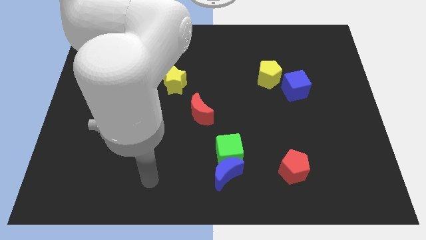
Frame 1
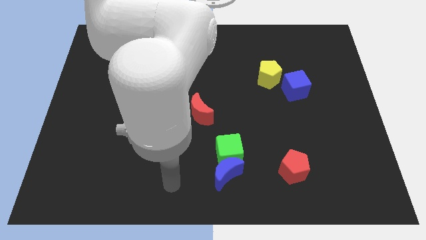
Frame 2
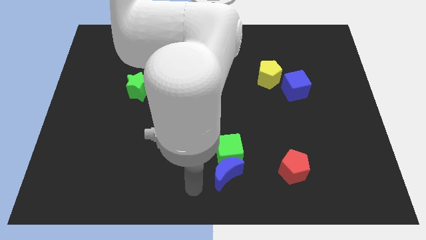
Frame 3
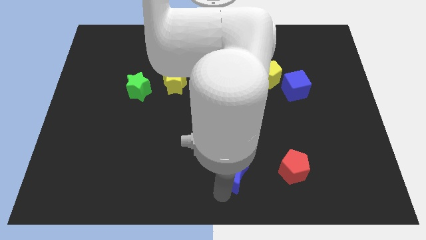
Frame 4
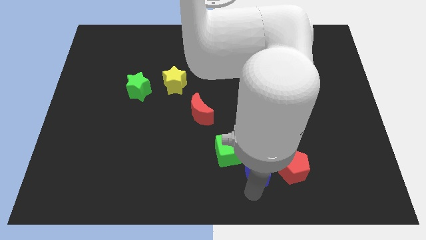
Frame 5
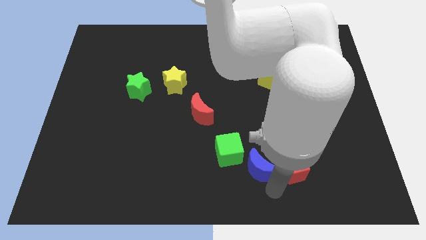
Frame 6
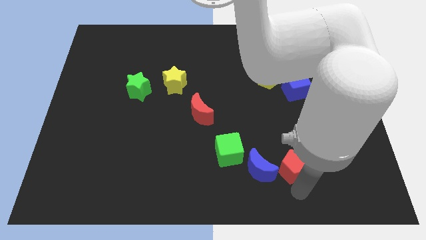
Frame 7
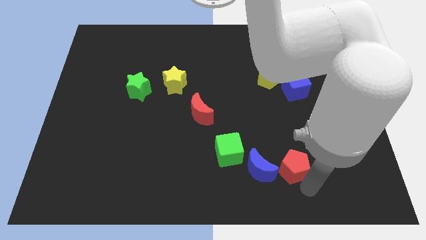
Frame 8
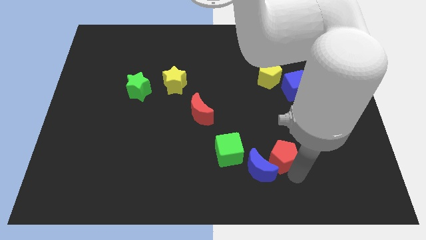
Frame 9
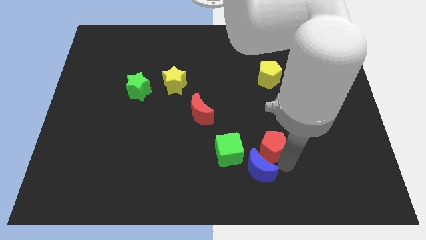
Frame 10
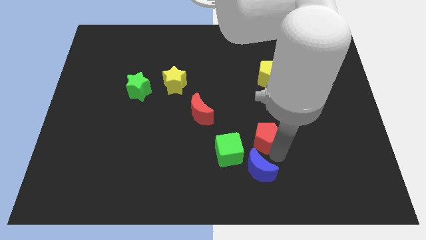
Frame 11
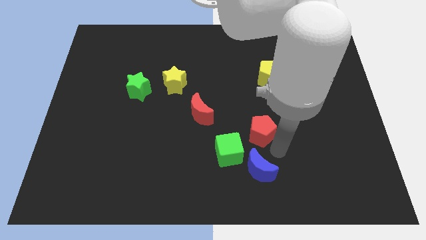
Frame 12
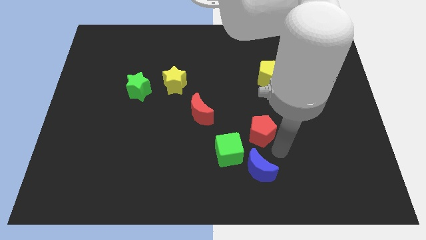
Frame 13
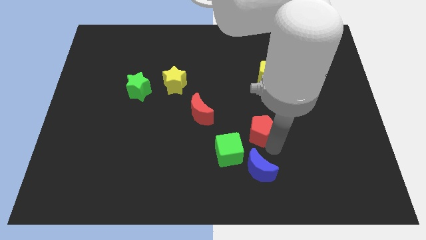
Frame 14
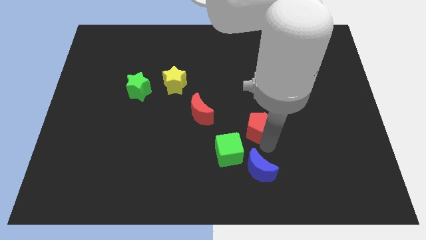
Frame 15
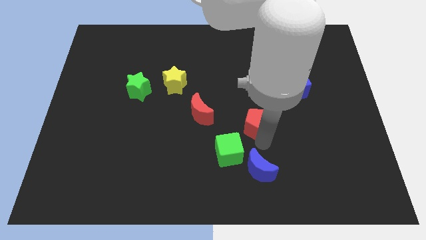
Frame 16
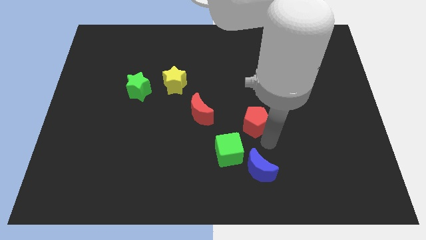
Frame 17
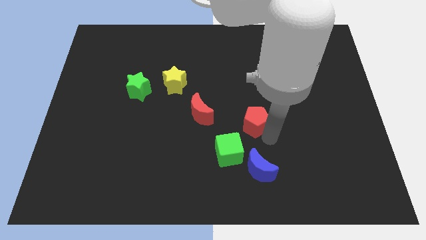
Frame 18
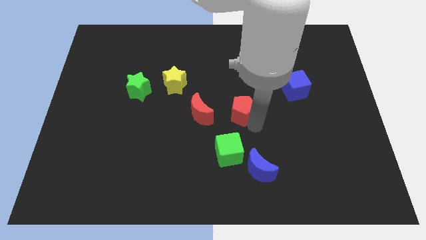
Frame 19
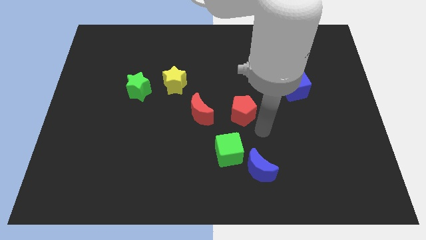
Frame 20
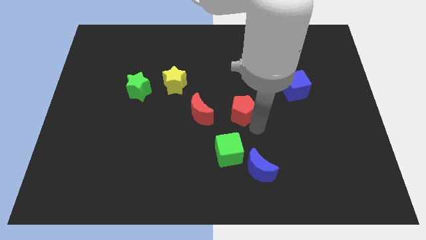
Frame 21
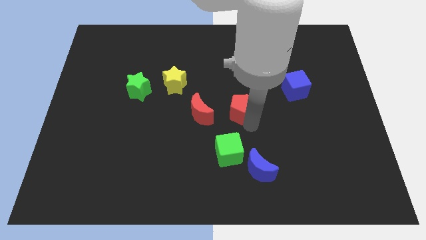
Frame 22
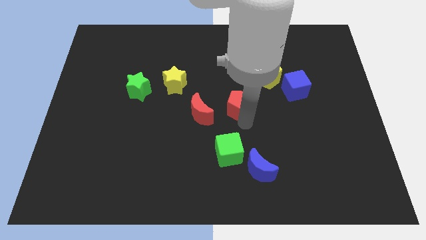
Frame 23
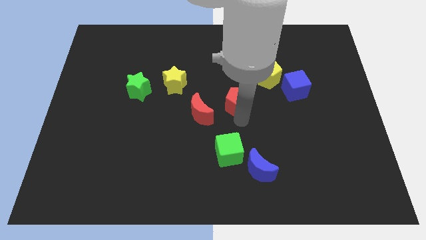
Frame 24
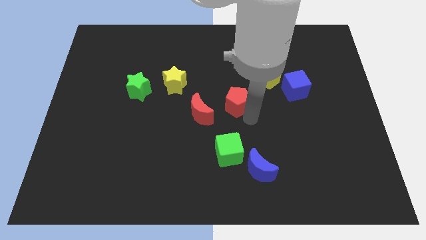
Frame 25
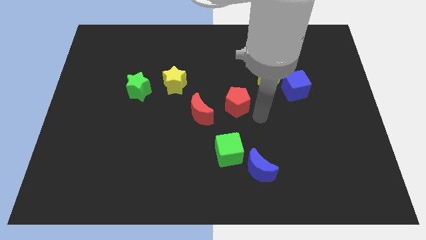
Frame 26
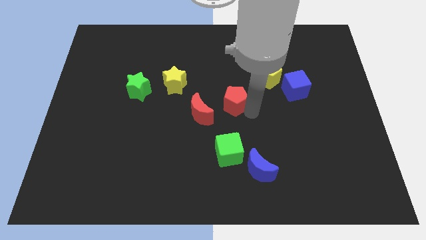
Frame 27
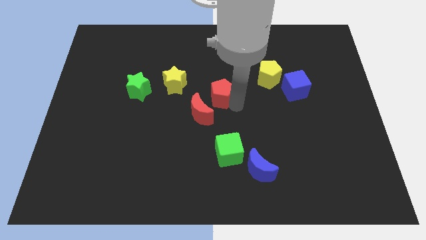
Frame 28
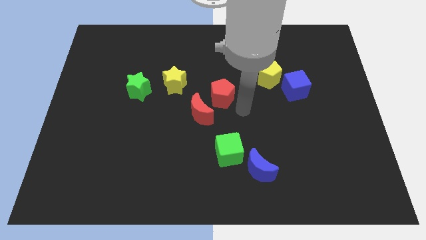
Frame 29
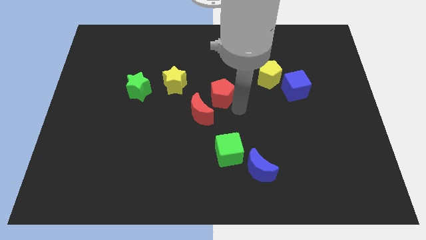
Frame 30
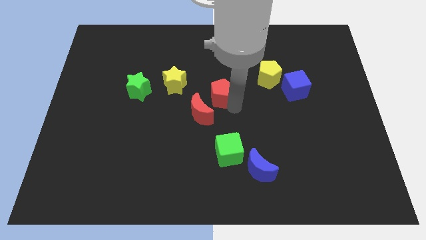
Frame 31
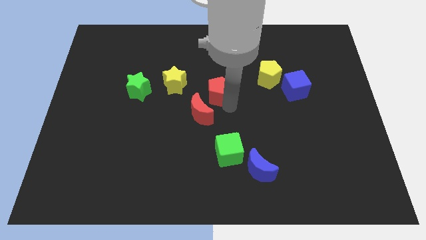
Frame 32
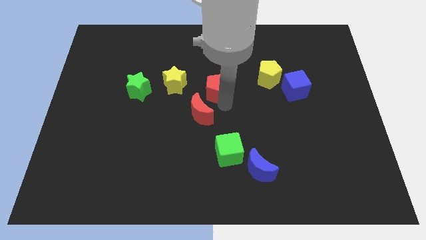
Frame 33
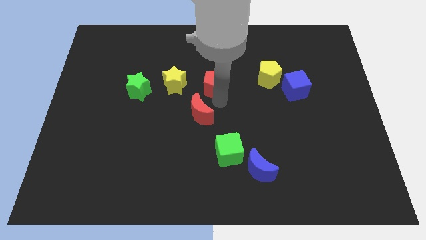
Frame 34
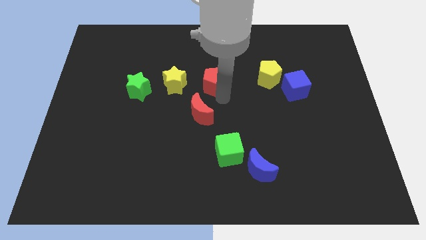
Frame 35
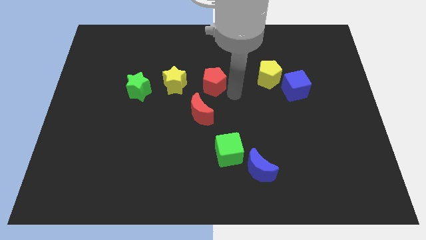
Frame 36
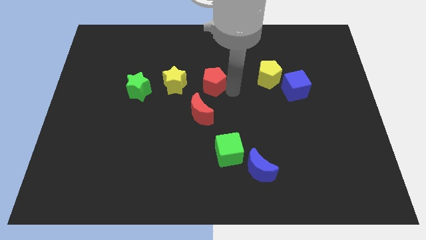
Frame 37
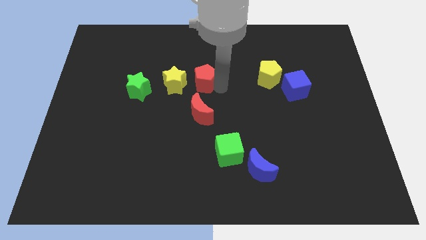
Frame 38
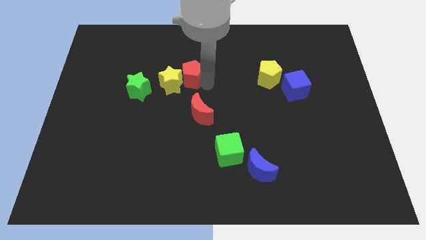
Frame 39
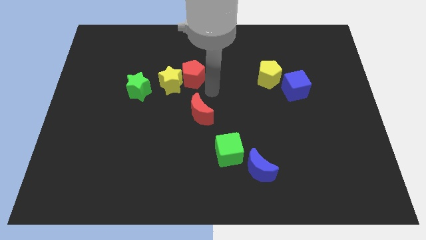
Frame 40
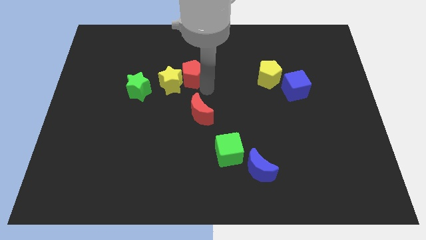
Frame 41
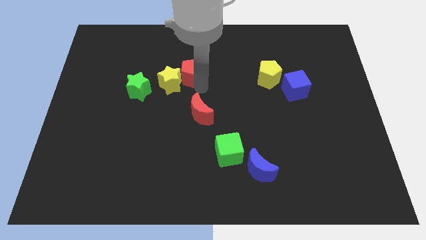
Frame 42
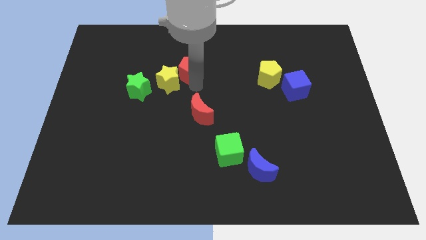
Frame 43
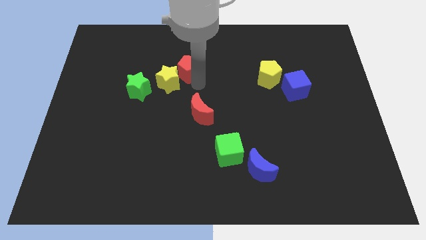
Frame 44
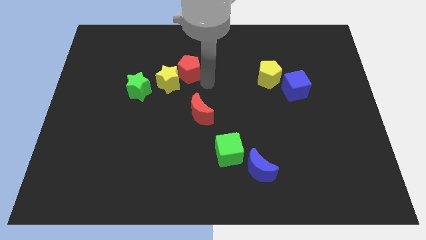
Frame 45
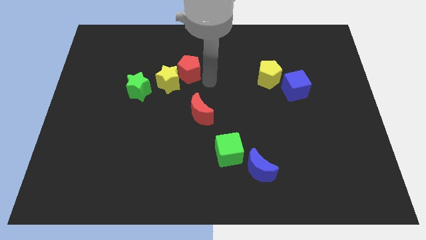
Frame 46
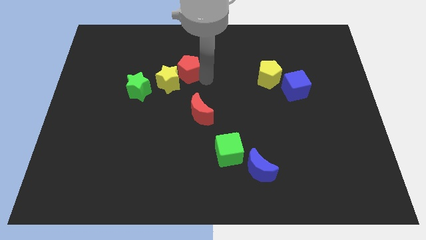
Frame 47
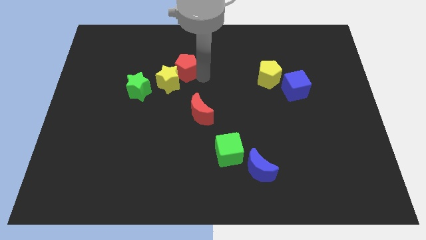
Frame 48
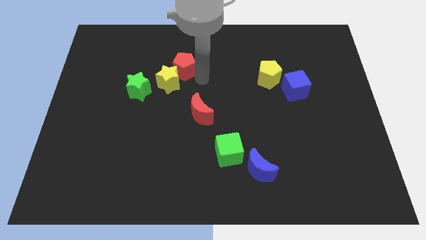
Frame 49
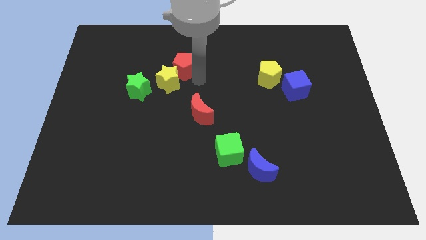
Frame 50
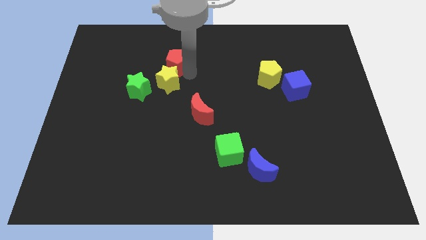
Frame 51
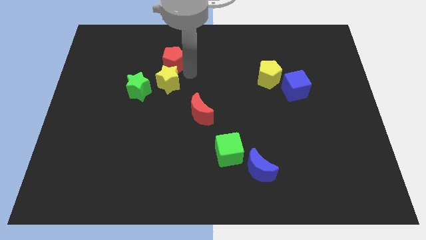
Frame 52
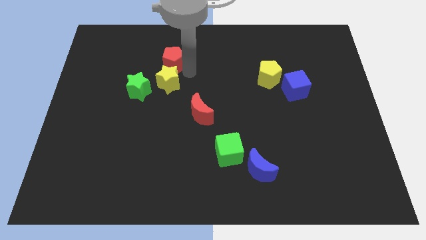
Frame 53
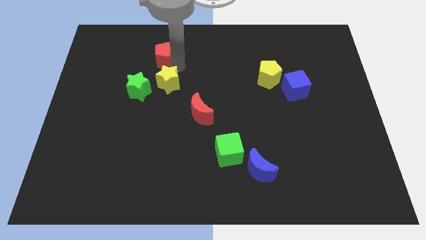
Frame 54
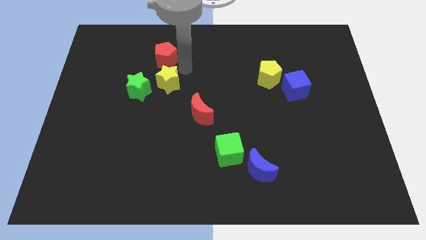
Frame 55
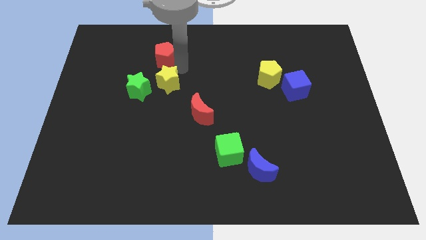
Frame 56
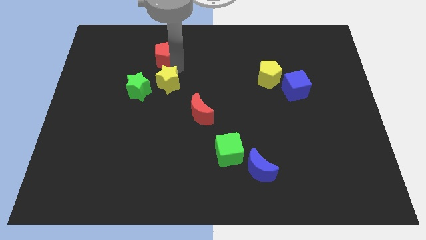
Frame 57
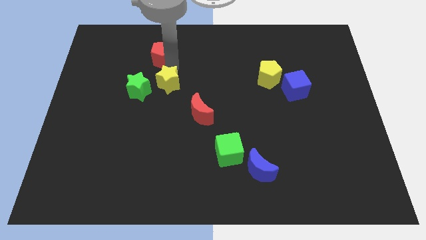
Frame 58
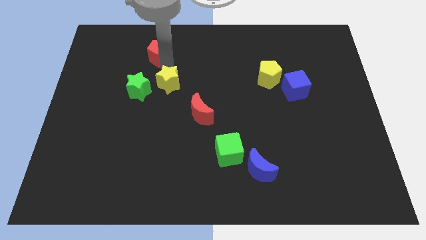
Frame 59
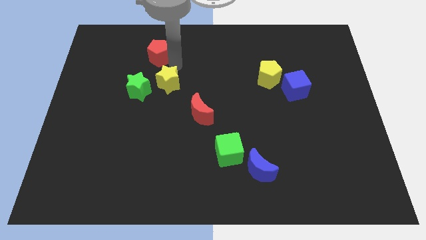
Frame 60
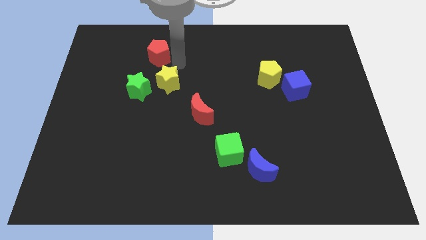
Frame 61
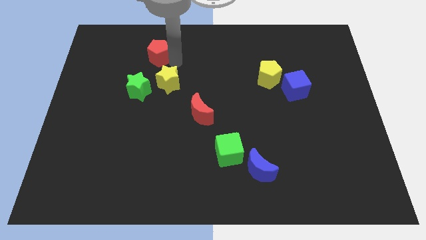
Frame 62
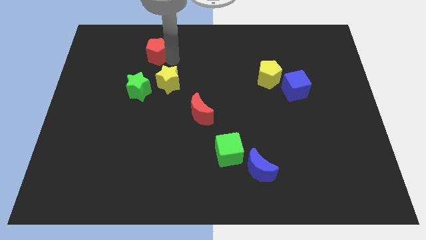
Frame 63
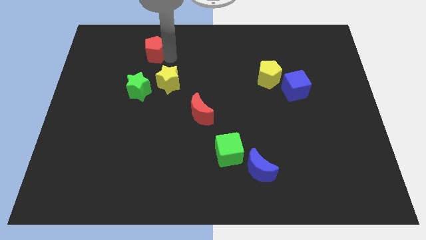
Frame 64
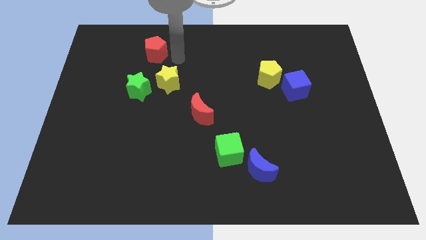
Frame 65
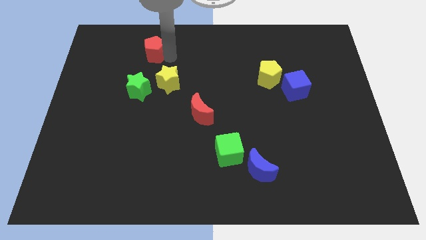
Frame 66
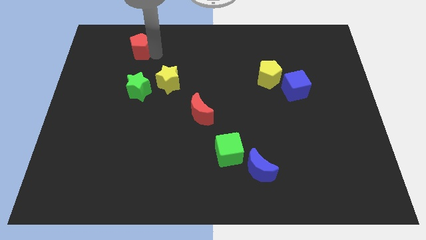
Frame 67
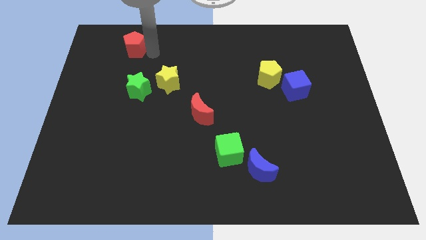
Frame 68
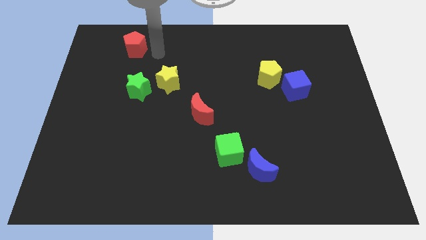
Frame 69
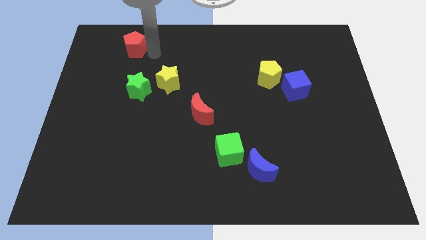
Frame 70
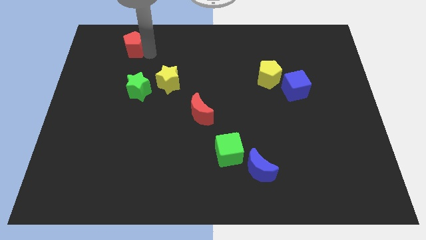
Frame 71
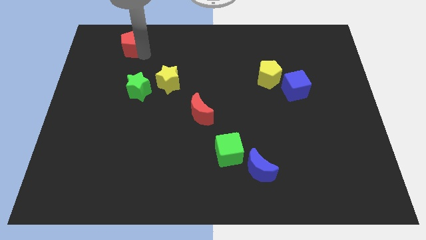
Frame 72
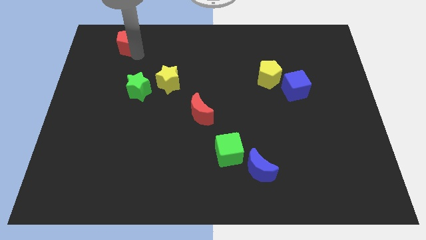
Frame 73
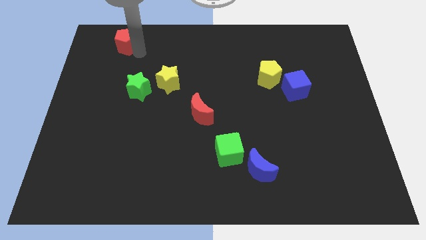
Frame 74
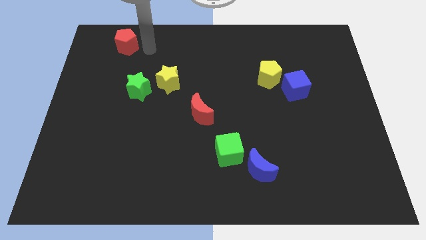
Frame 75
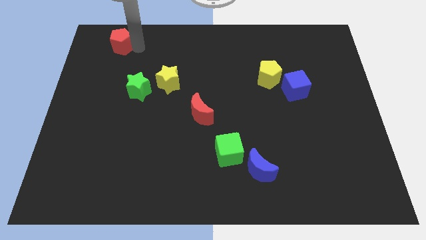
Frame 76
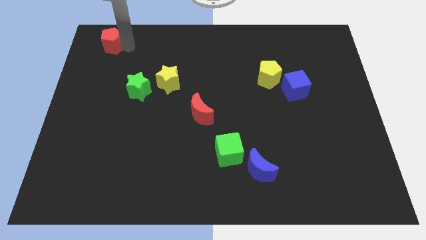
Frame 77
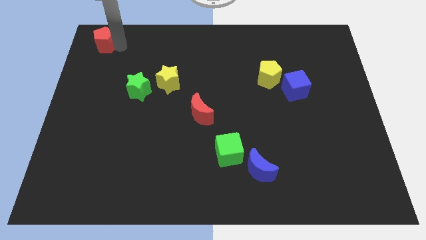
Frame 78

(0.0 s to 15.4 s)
move the red pentagon to the upper left corner

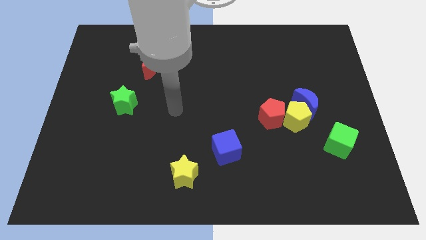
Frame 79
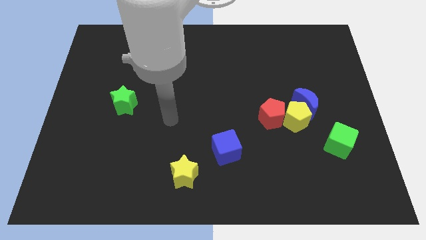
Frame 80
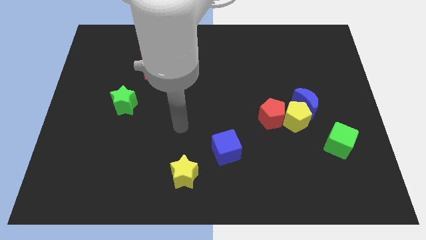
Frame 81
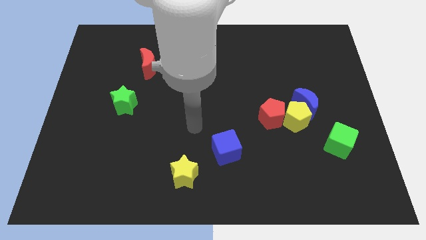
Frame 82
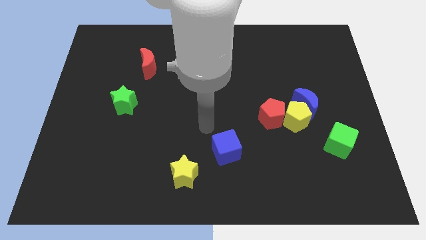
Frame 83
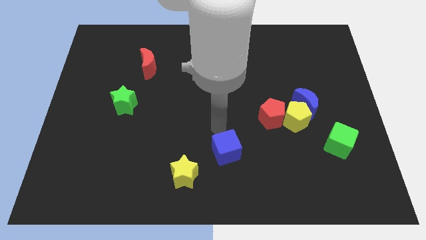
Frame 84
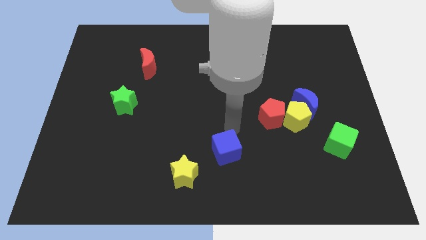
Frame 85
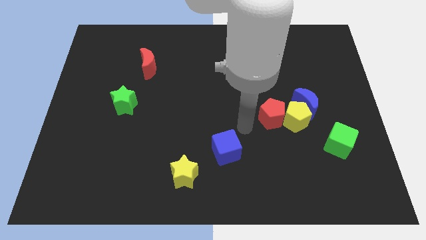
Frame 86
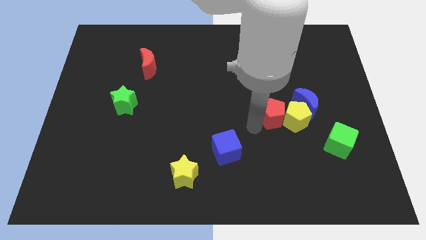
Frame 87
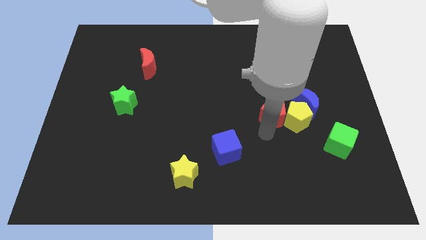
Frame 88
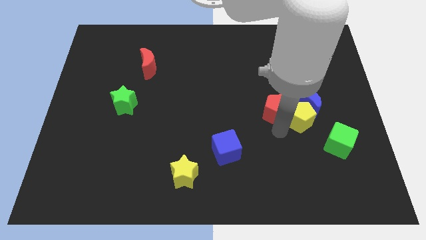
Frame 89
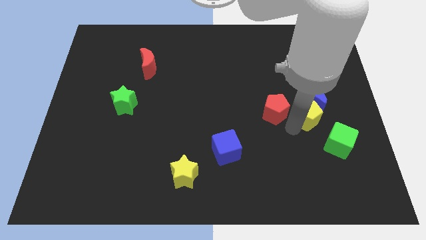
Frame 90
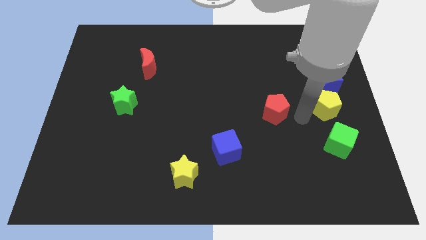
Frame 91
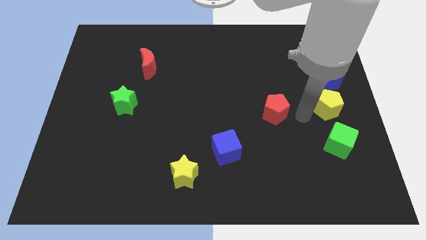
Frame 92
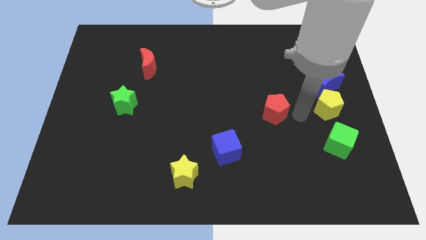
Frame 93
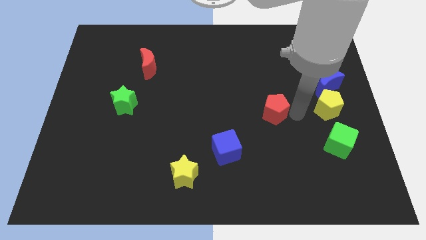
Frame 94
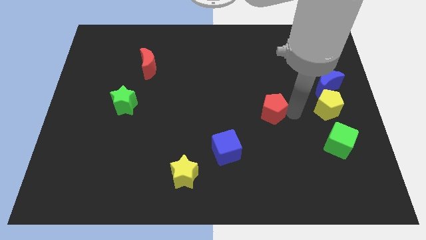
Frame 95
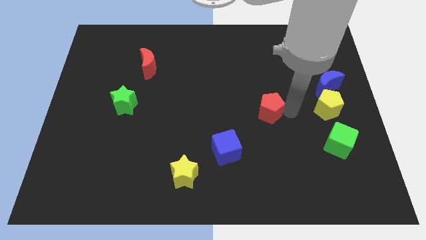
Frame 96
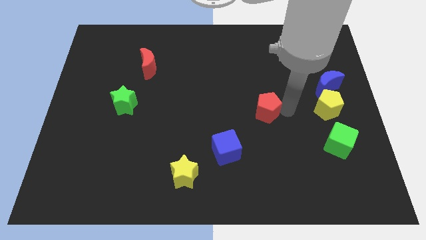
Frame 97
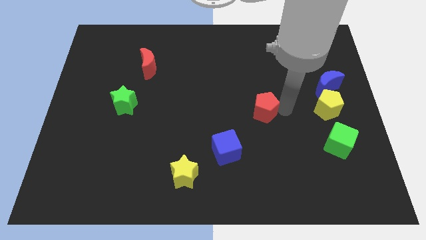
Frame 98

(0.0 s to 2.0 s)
put the red pentagon to the center
